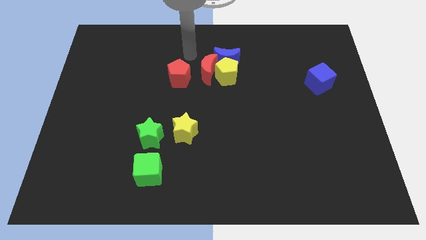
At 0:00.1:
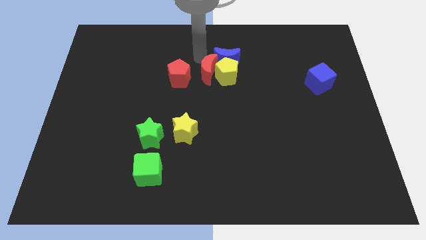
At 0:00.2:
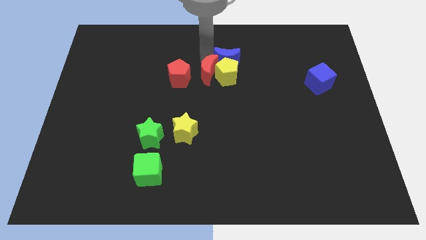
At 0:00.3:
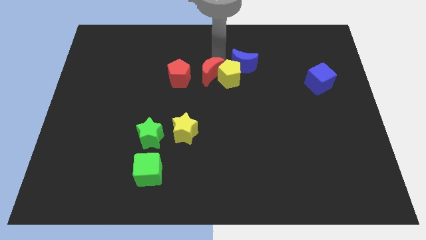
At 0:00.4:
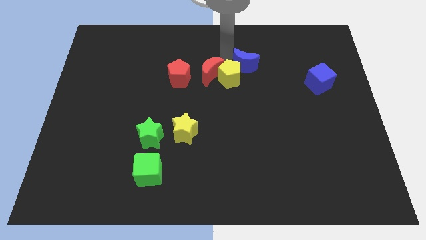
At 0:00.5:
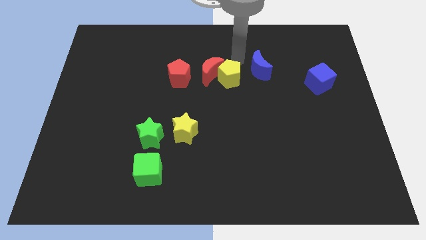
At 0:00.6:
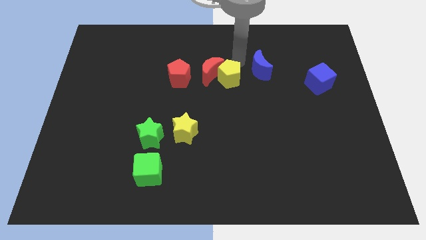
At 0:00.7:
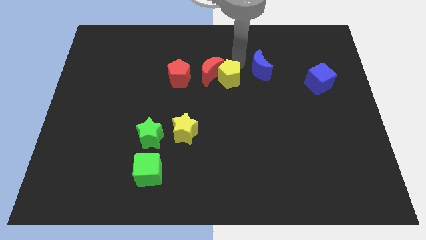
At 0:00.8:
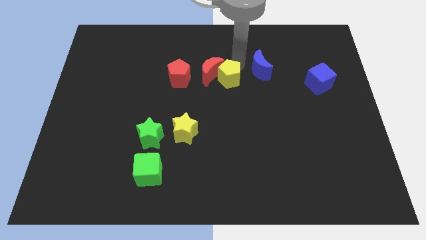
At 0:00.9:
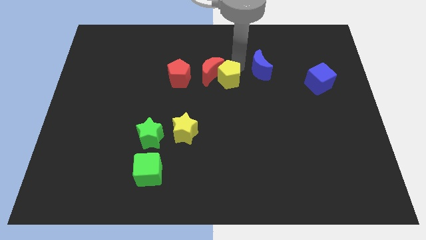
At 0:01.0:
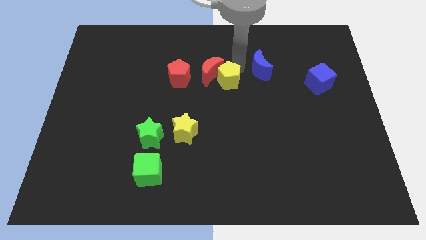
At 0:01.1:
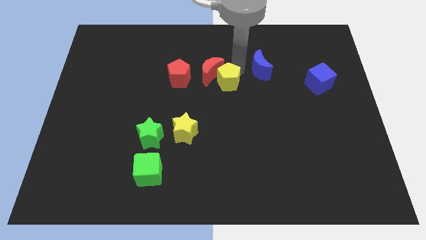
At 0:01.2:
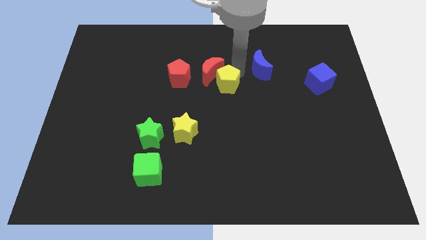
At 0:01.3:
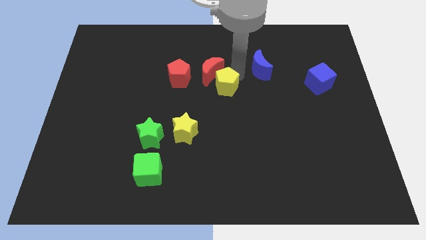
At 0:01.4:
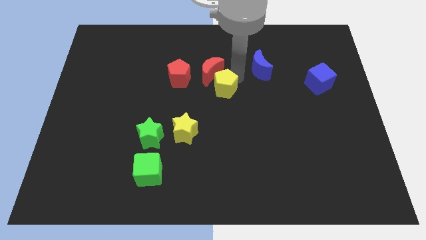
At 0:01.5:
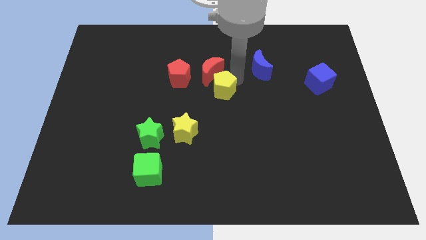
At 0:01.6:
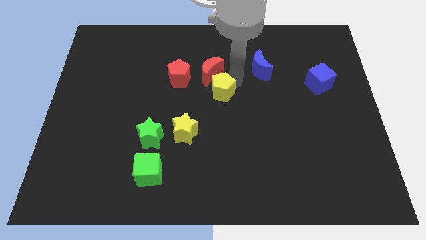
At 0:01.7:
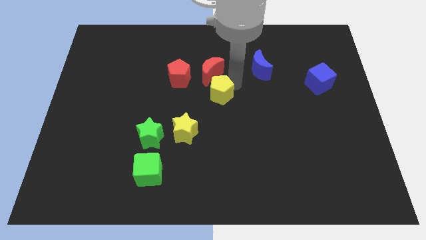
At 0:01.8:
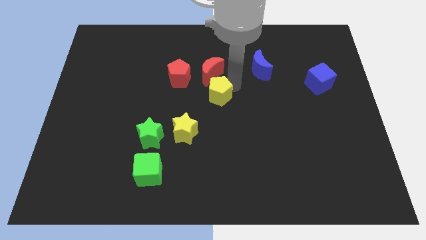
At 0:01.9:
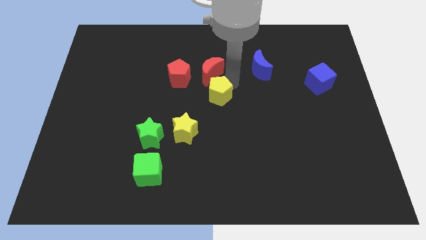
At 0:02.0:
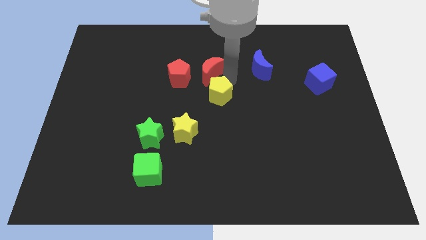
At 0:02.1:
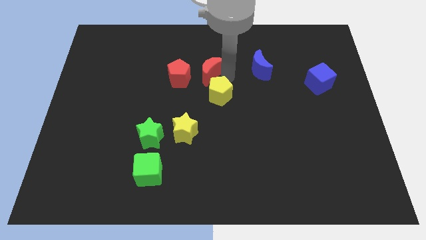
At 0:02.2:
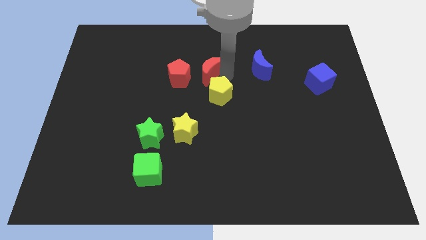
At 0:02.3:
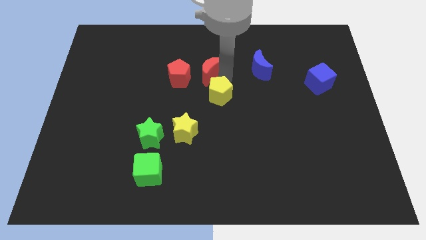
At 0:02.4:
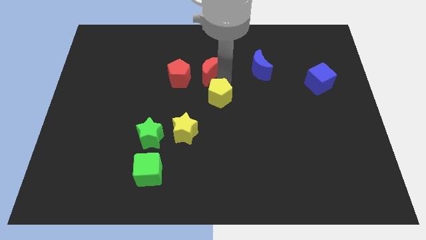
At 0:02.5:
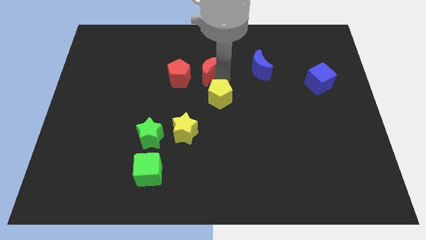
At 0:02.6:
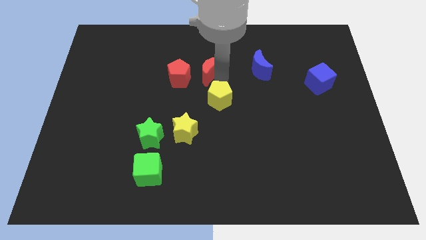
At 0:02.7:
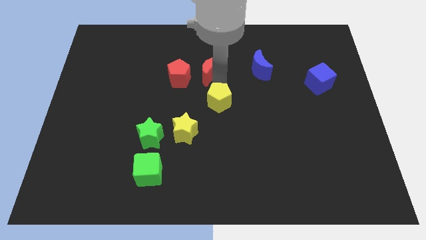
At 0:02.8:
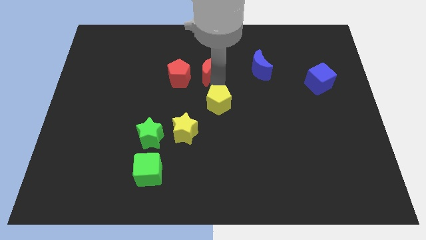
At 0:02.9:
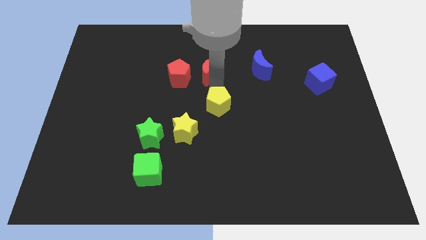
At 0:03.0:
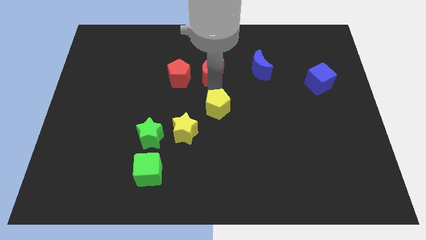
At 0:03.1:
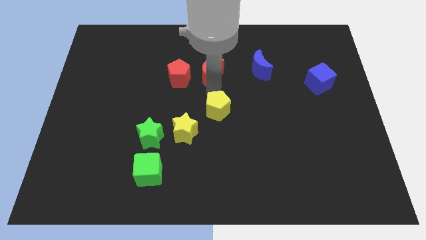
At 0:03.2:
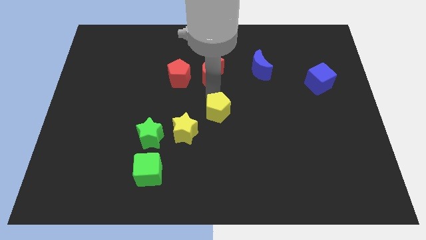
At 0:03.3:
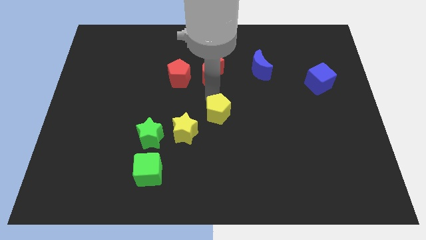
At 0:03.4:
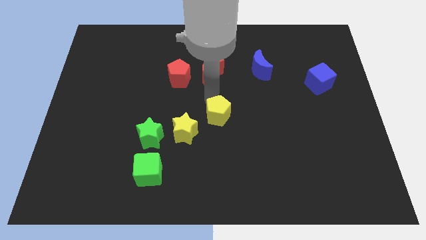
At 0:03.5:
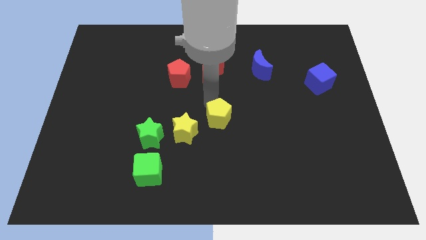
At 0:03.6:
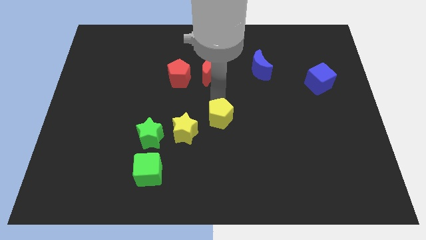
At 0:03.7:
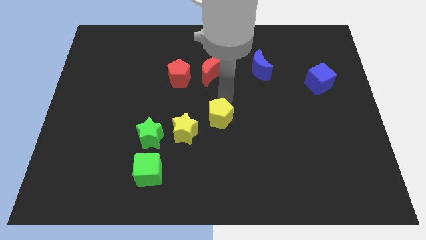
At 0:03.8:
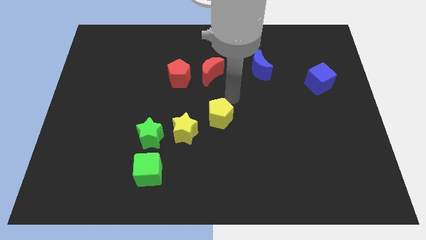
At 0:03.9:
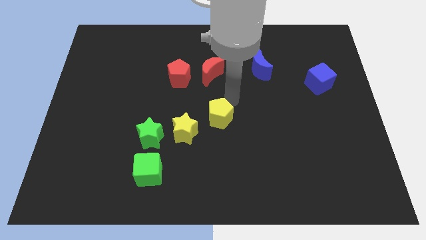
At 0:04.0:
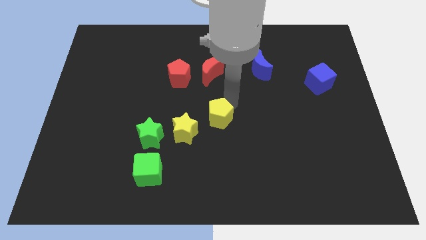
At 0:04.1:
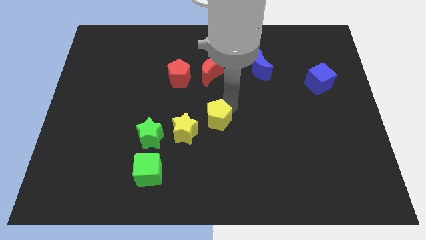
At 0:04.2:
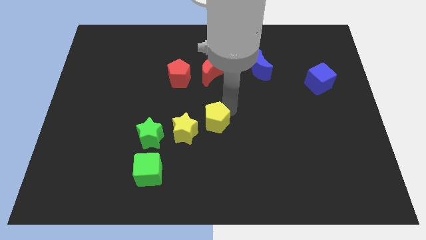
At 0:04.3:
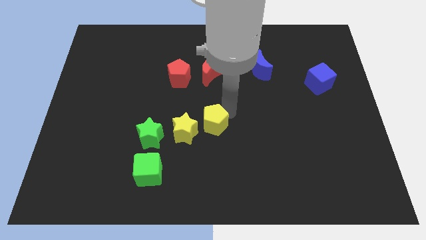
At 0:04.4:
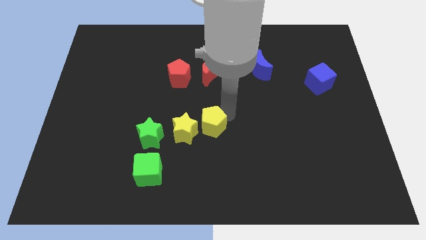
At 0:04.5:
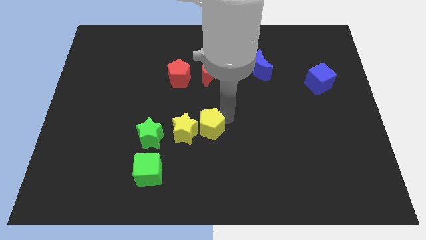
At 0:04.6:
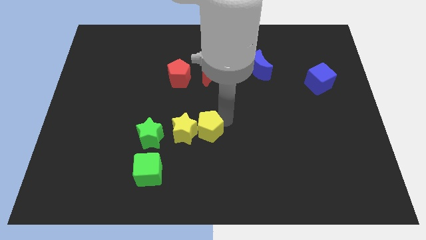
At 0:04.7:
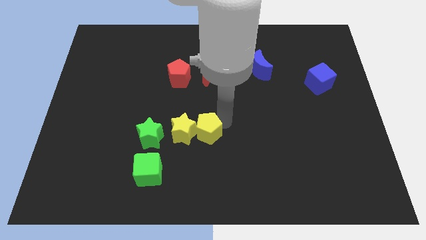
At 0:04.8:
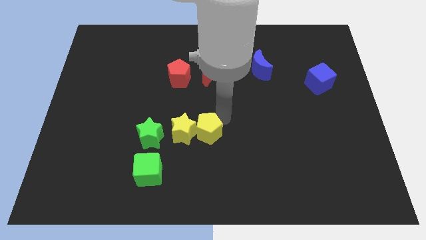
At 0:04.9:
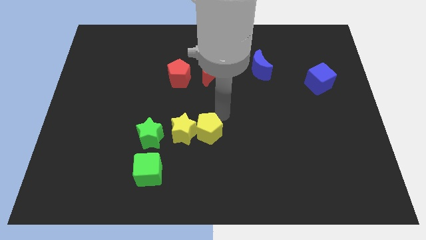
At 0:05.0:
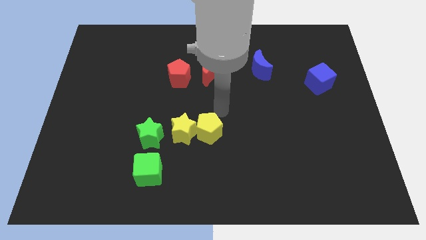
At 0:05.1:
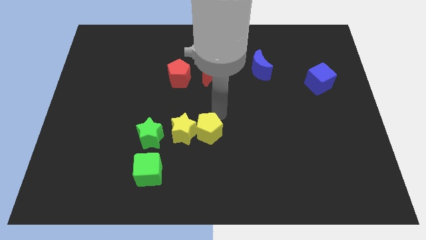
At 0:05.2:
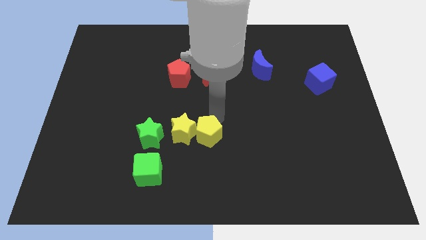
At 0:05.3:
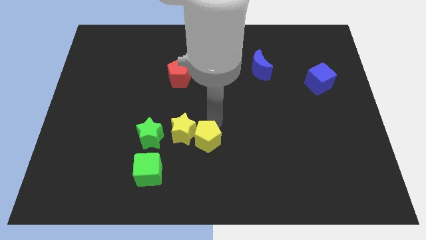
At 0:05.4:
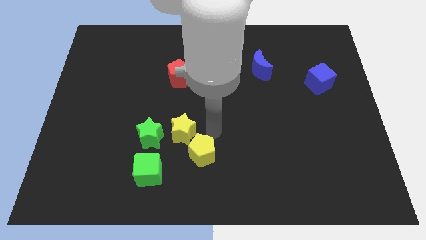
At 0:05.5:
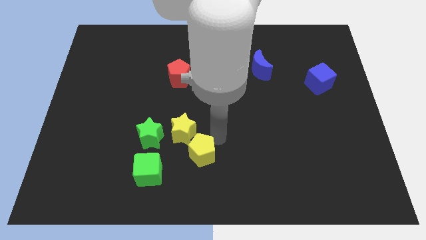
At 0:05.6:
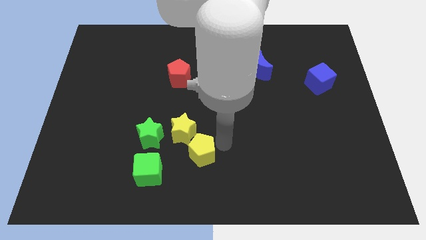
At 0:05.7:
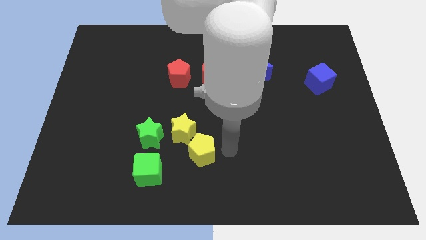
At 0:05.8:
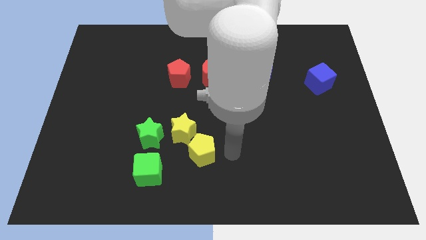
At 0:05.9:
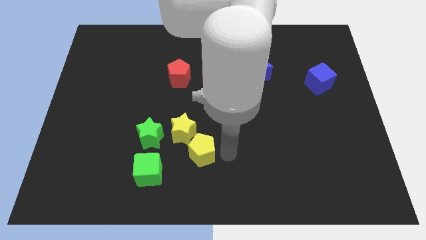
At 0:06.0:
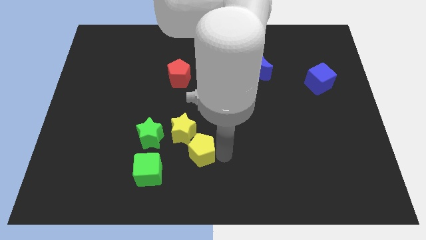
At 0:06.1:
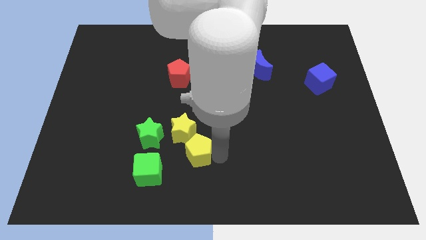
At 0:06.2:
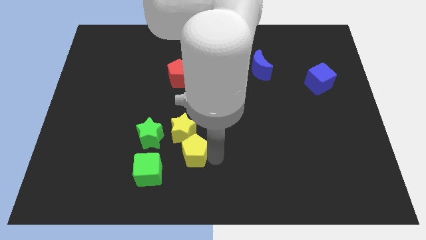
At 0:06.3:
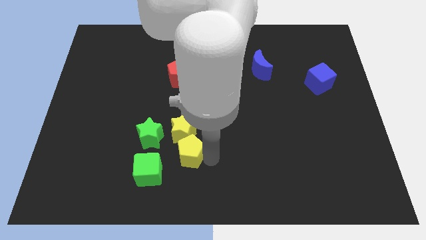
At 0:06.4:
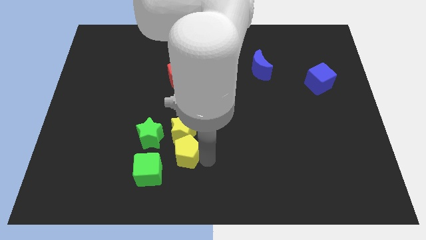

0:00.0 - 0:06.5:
push the yellow pentagon to the bottom left side of the yellow star

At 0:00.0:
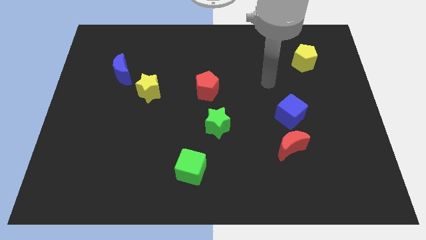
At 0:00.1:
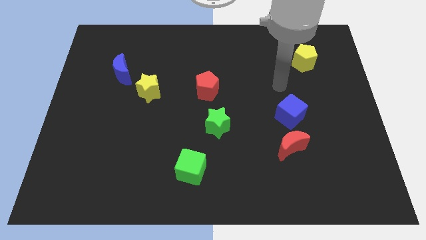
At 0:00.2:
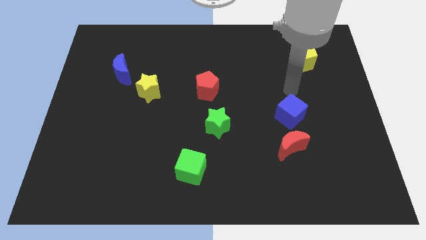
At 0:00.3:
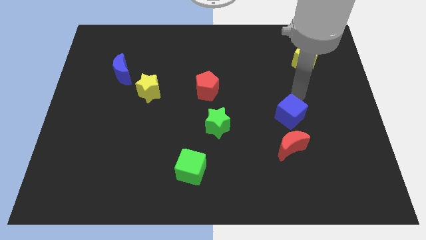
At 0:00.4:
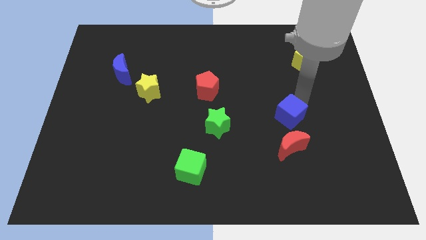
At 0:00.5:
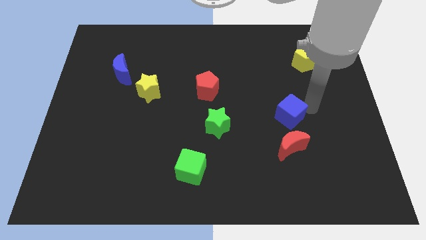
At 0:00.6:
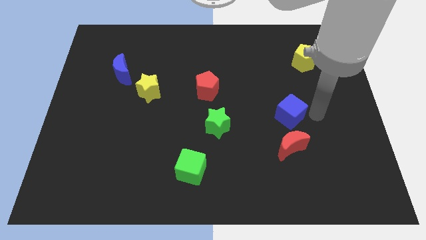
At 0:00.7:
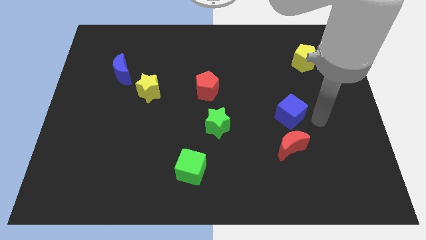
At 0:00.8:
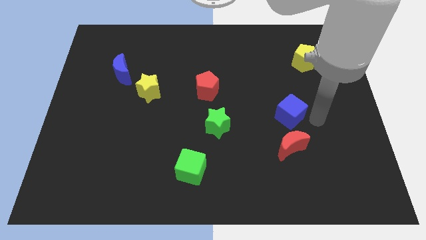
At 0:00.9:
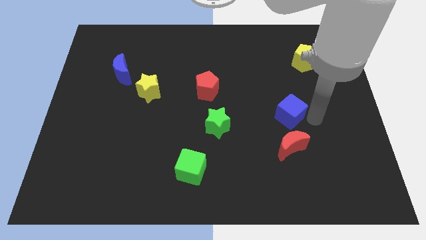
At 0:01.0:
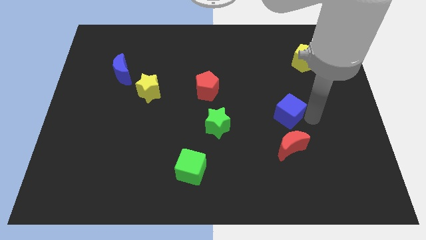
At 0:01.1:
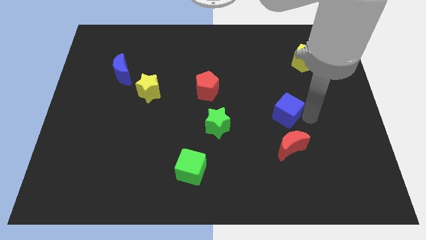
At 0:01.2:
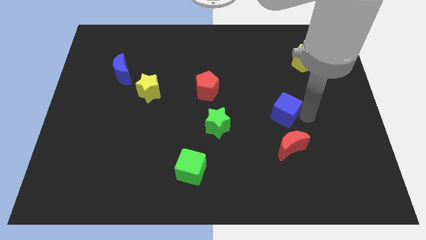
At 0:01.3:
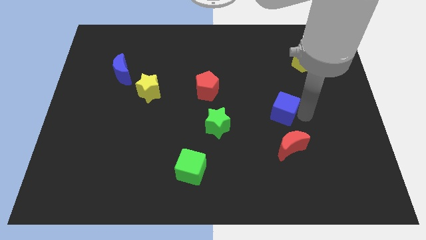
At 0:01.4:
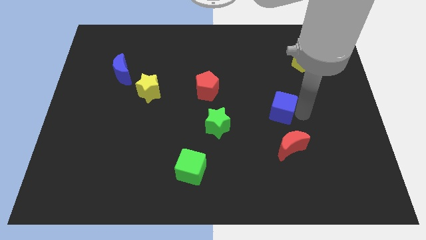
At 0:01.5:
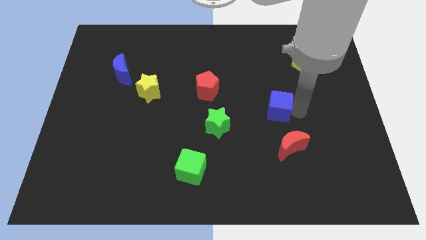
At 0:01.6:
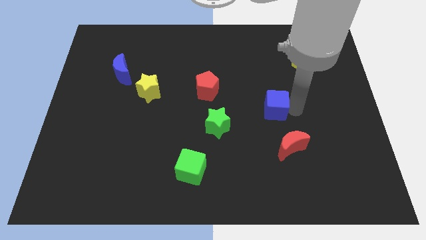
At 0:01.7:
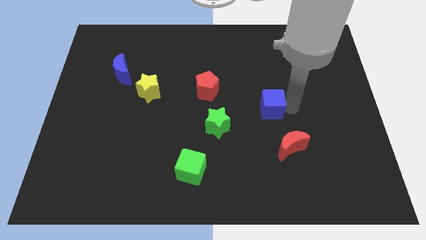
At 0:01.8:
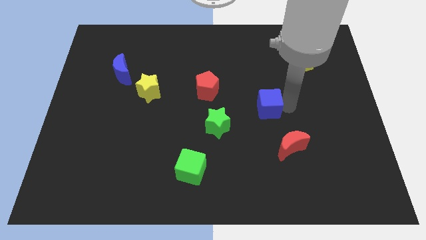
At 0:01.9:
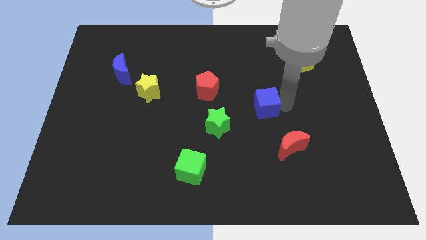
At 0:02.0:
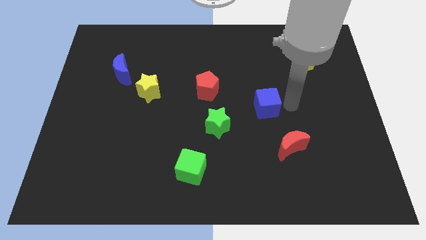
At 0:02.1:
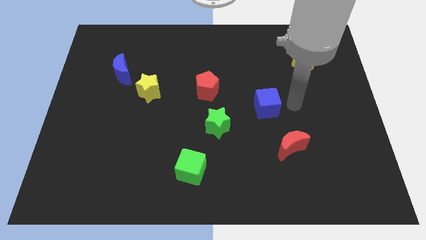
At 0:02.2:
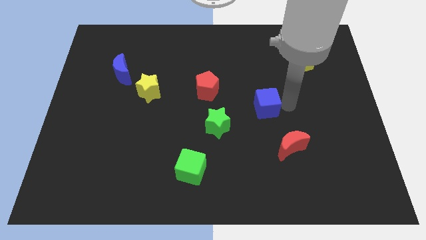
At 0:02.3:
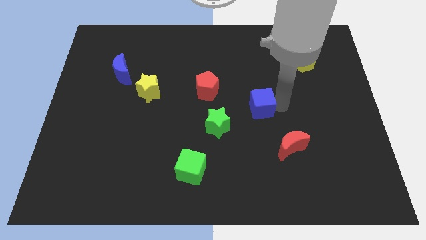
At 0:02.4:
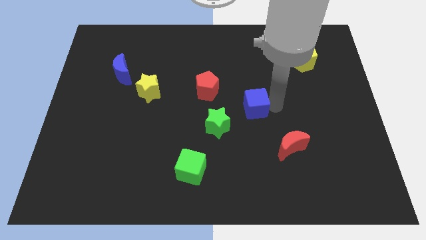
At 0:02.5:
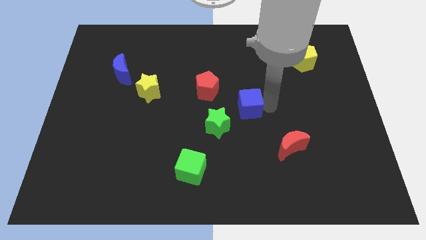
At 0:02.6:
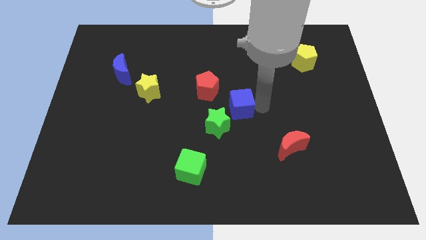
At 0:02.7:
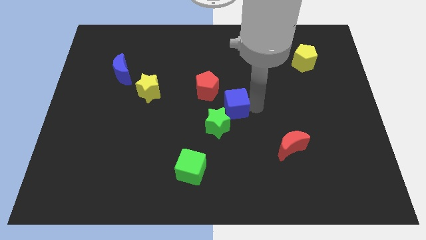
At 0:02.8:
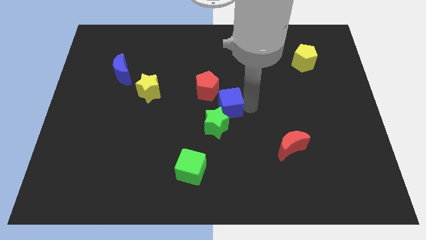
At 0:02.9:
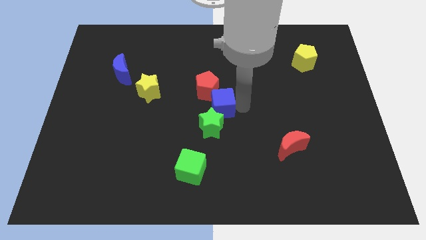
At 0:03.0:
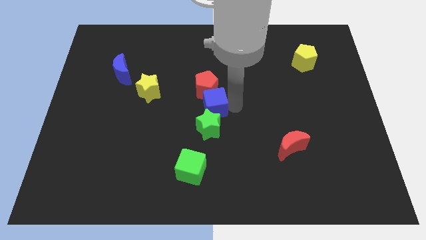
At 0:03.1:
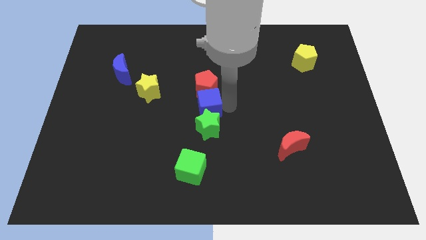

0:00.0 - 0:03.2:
put the blue cube to the bottom left side of the red pentagon
